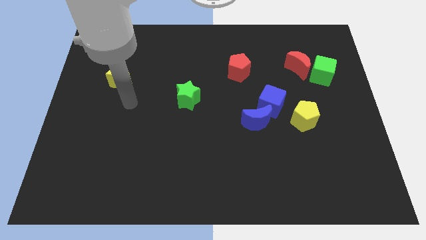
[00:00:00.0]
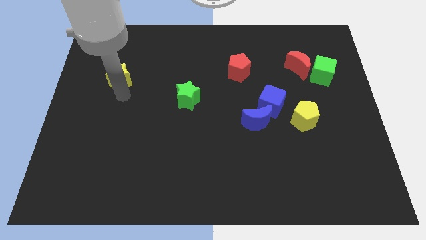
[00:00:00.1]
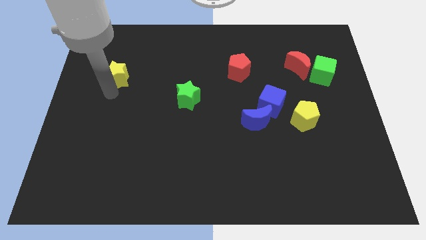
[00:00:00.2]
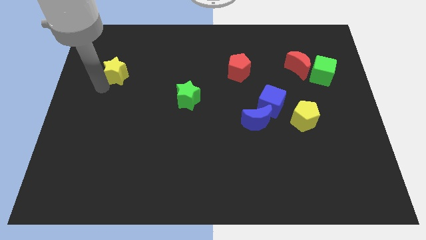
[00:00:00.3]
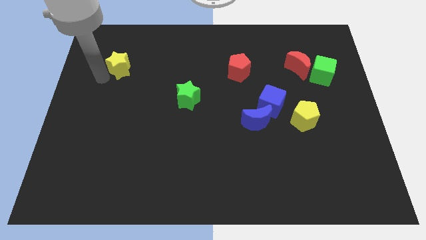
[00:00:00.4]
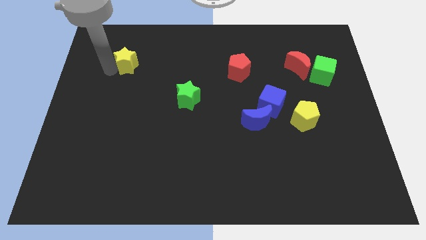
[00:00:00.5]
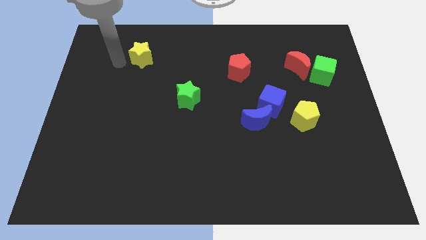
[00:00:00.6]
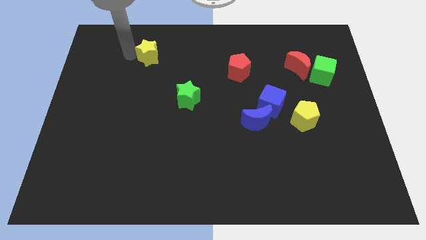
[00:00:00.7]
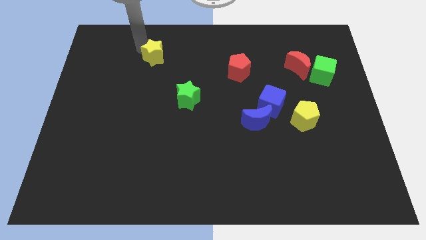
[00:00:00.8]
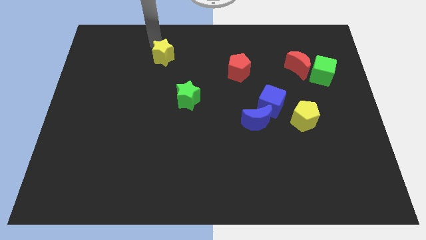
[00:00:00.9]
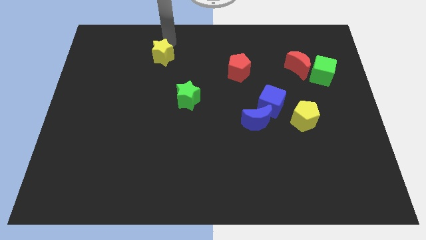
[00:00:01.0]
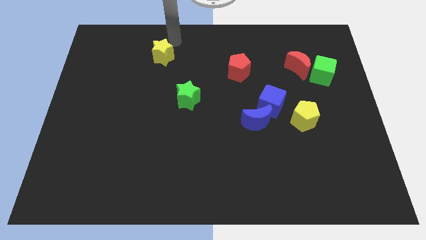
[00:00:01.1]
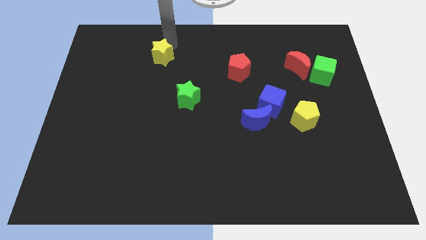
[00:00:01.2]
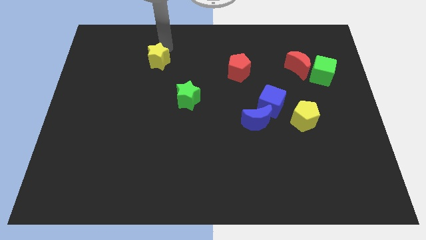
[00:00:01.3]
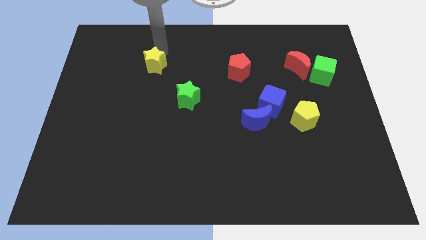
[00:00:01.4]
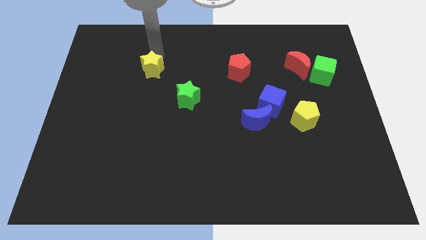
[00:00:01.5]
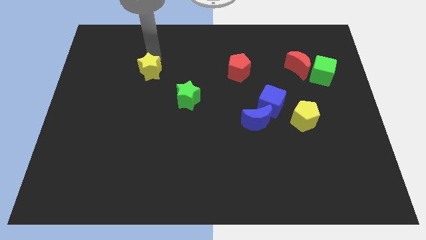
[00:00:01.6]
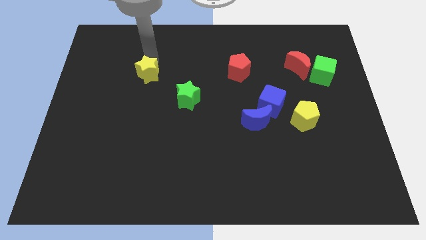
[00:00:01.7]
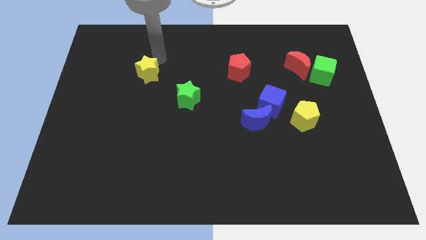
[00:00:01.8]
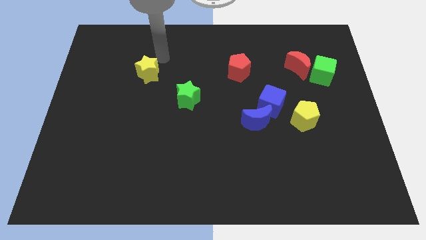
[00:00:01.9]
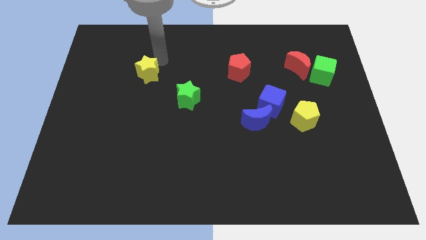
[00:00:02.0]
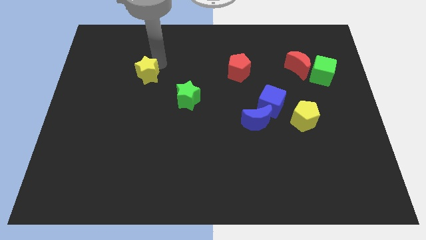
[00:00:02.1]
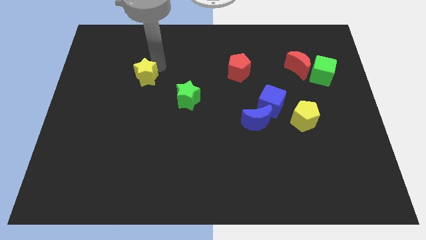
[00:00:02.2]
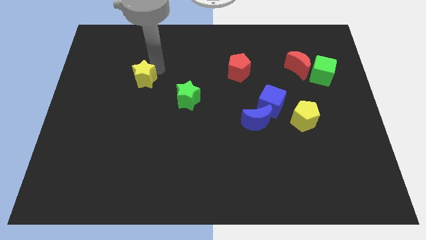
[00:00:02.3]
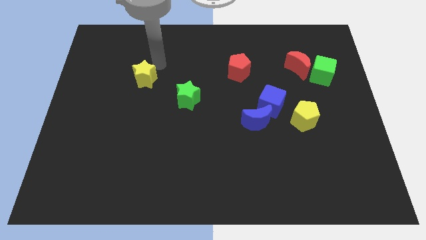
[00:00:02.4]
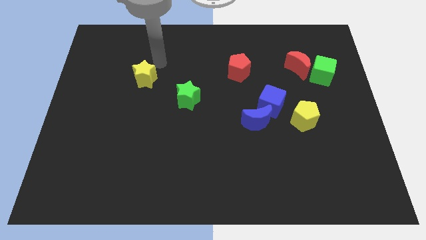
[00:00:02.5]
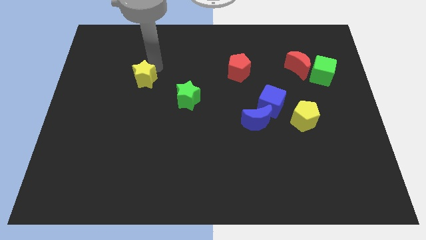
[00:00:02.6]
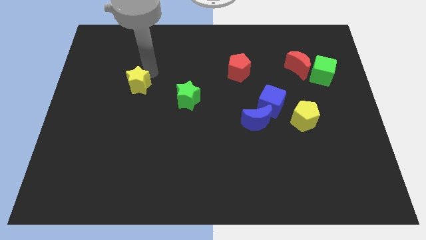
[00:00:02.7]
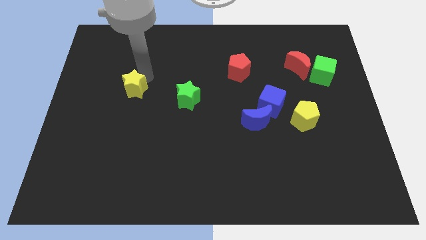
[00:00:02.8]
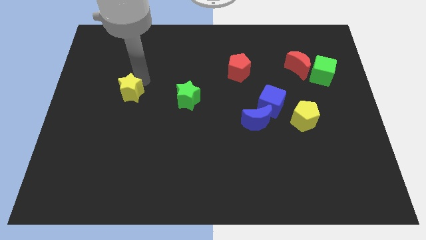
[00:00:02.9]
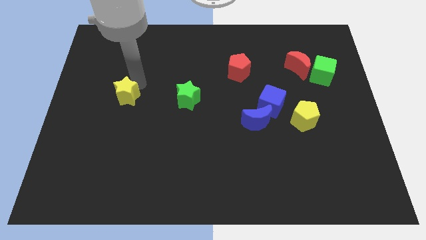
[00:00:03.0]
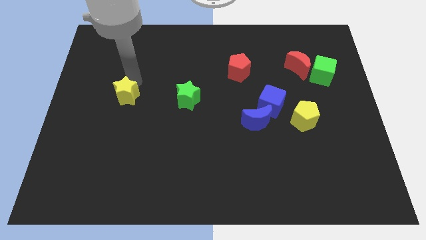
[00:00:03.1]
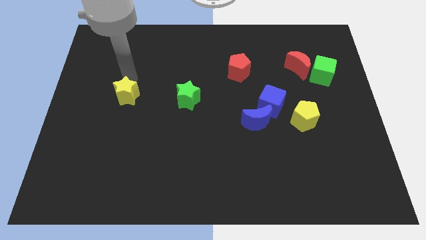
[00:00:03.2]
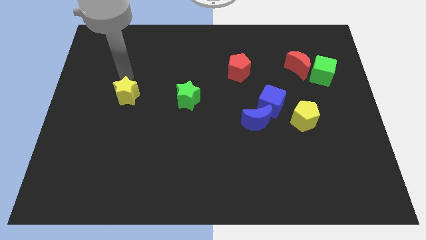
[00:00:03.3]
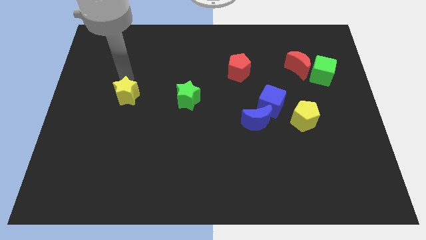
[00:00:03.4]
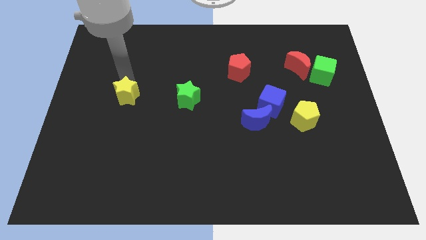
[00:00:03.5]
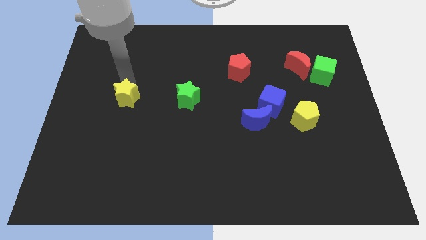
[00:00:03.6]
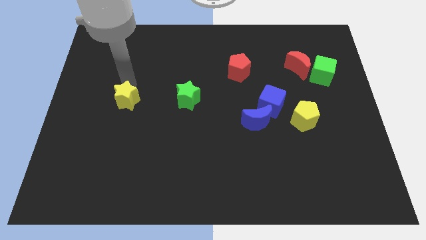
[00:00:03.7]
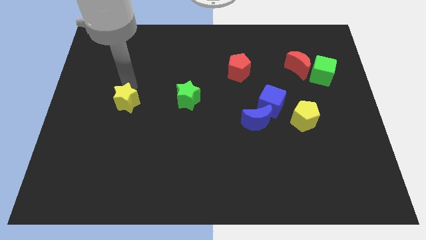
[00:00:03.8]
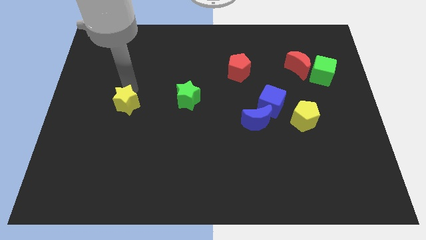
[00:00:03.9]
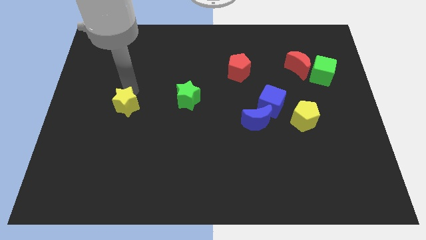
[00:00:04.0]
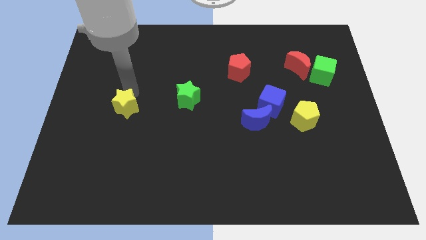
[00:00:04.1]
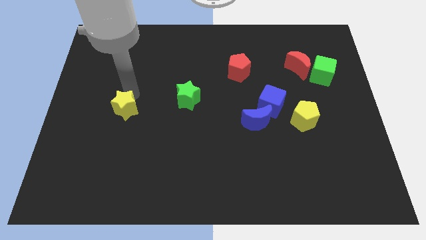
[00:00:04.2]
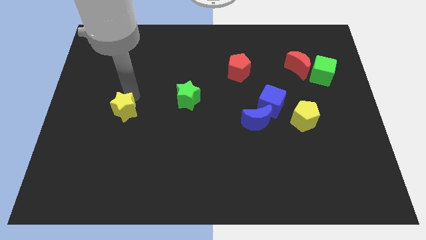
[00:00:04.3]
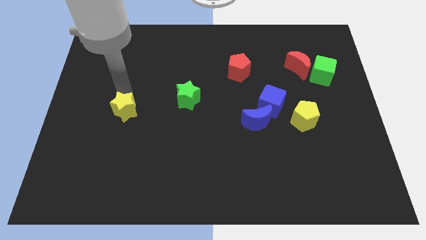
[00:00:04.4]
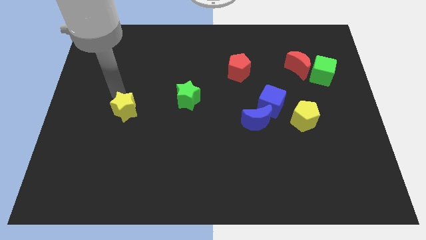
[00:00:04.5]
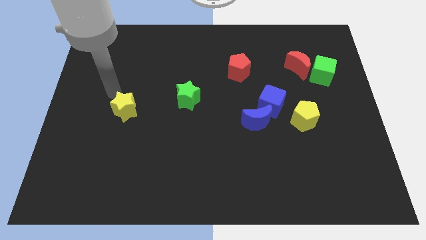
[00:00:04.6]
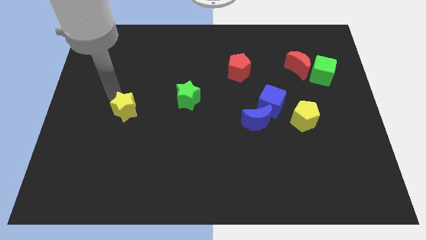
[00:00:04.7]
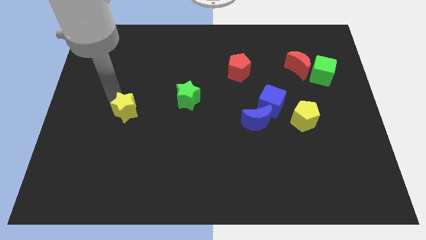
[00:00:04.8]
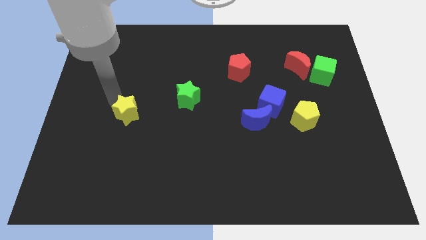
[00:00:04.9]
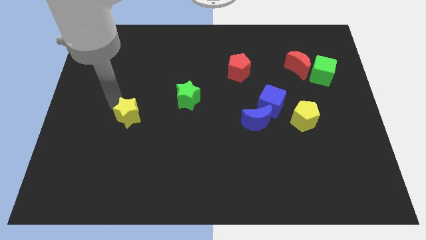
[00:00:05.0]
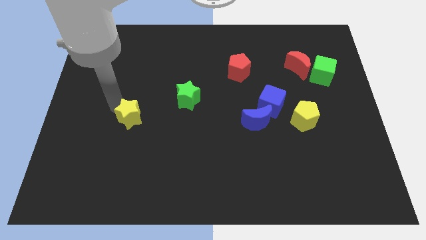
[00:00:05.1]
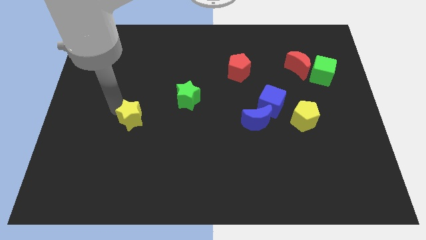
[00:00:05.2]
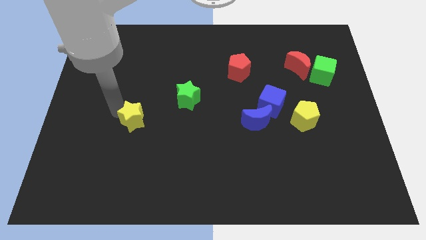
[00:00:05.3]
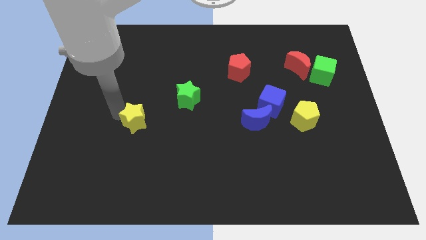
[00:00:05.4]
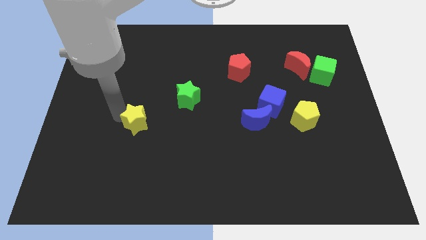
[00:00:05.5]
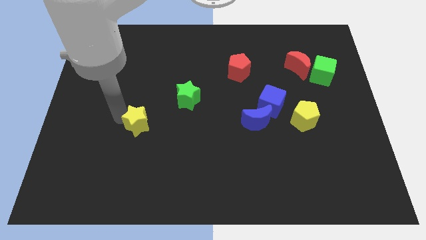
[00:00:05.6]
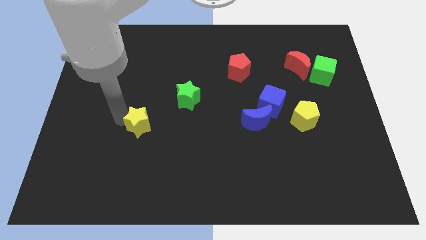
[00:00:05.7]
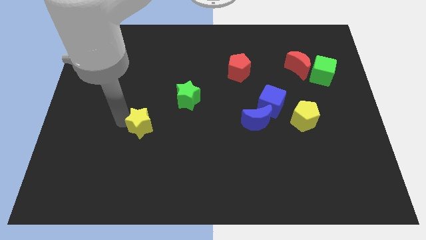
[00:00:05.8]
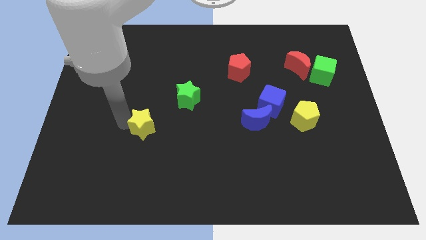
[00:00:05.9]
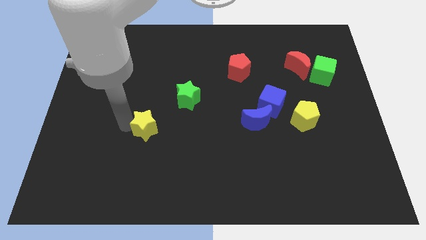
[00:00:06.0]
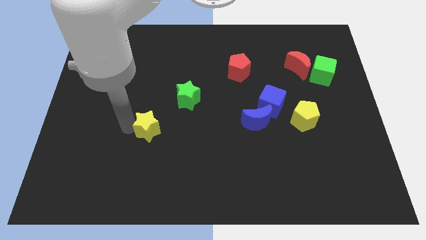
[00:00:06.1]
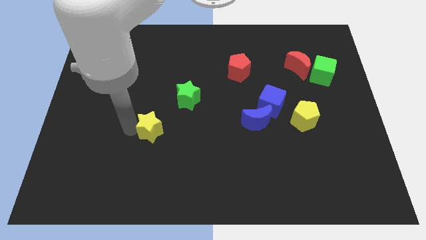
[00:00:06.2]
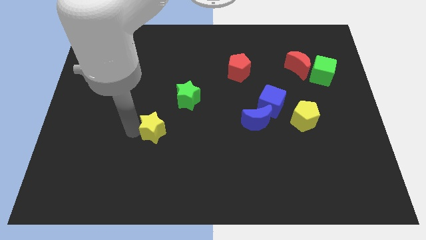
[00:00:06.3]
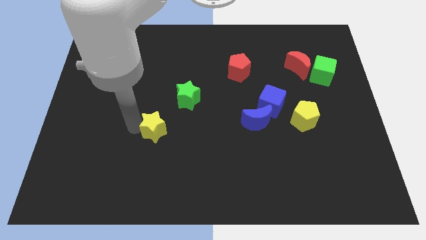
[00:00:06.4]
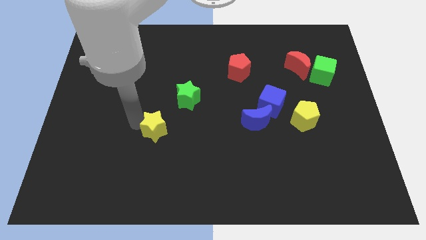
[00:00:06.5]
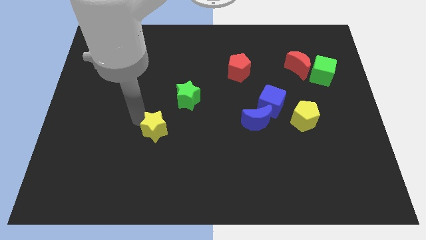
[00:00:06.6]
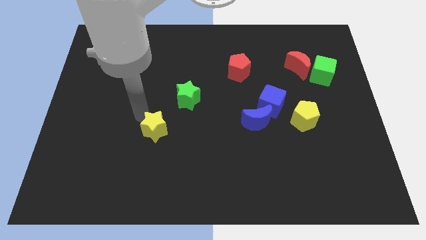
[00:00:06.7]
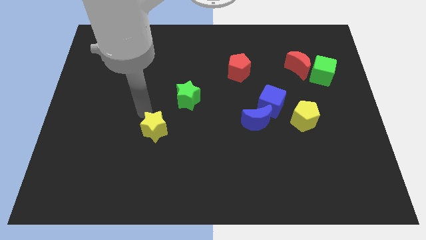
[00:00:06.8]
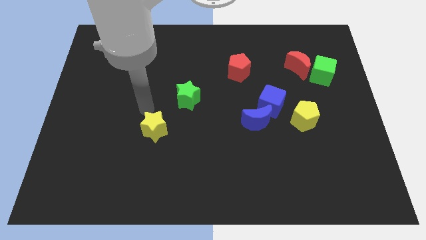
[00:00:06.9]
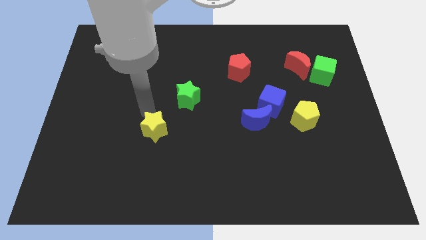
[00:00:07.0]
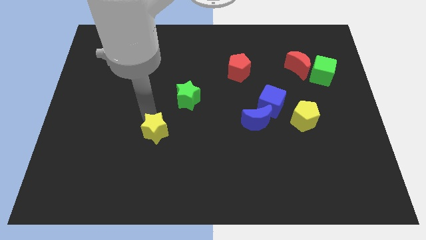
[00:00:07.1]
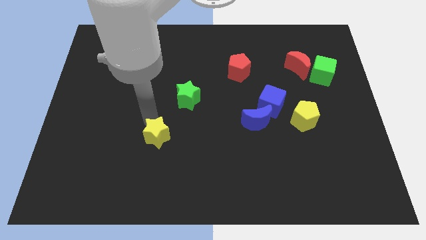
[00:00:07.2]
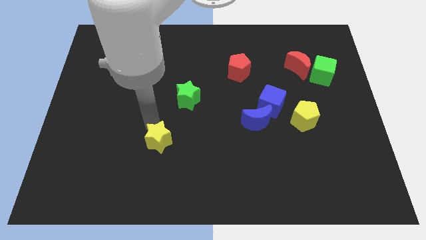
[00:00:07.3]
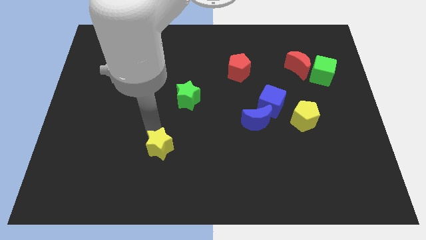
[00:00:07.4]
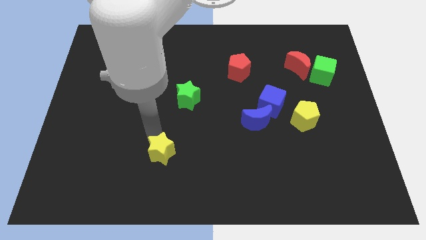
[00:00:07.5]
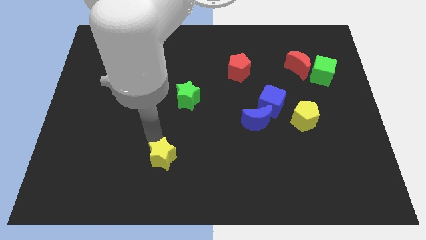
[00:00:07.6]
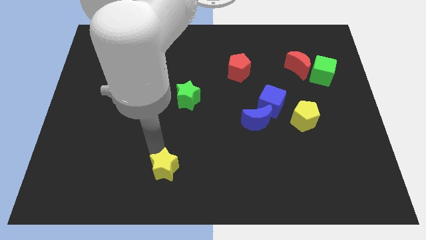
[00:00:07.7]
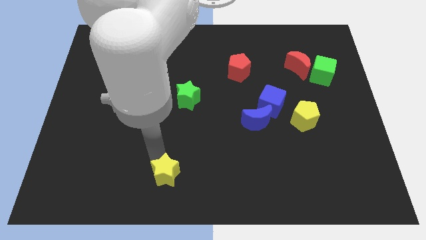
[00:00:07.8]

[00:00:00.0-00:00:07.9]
slide the yellow star to the bottom
